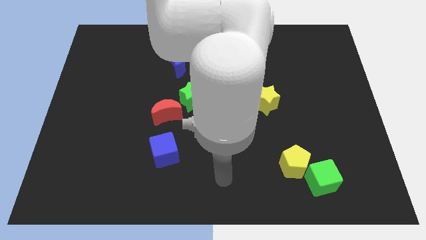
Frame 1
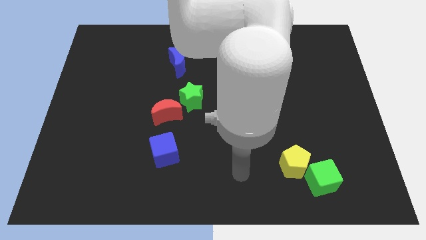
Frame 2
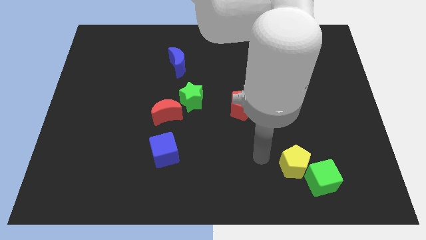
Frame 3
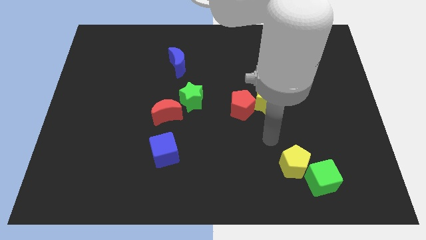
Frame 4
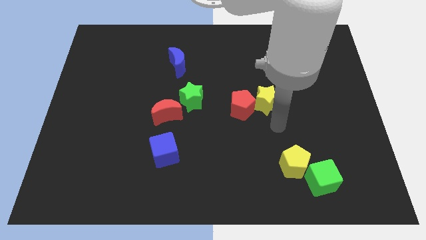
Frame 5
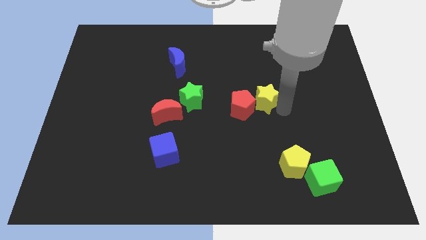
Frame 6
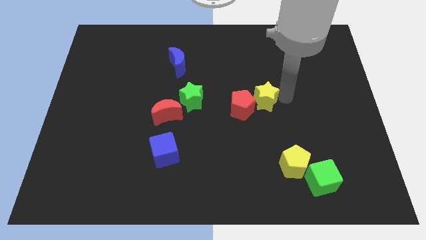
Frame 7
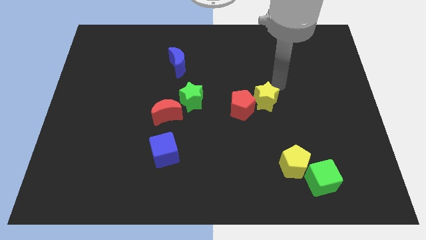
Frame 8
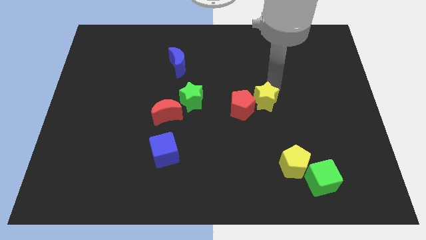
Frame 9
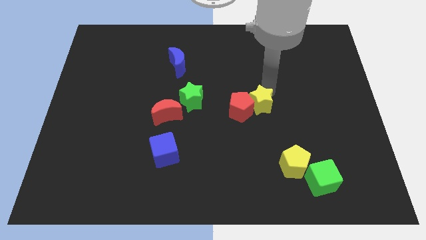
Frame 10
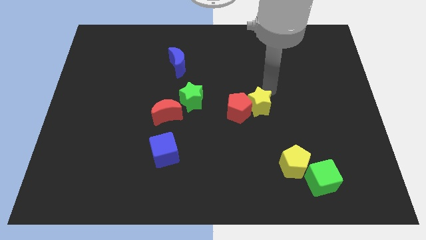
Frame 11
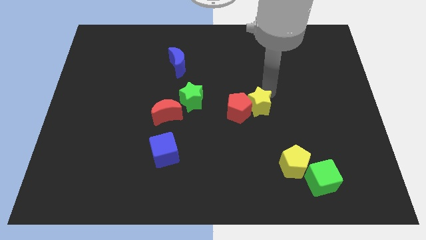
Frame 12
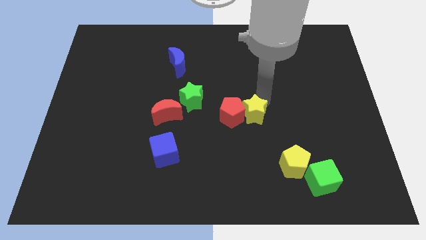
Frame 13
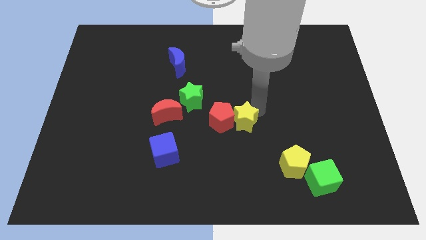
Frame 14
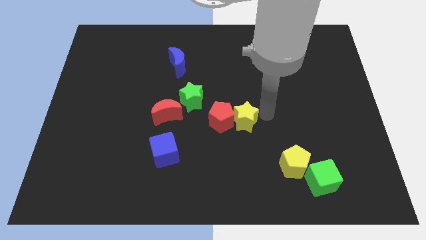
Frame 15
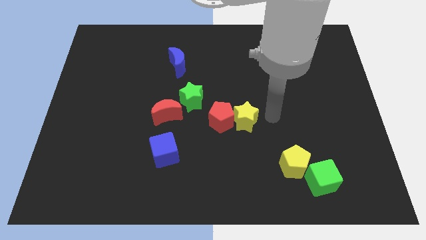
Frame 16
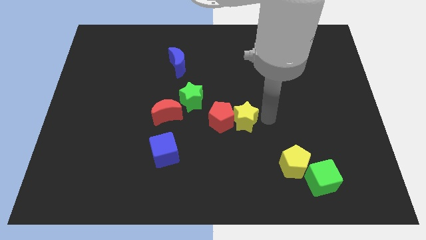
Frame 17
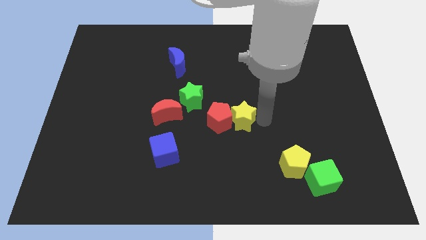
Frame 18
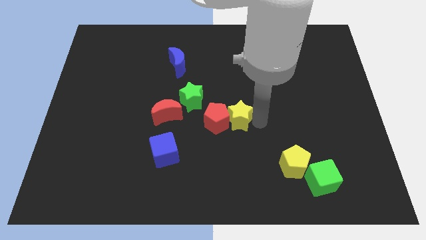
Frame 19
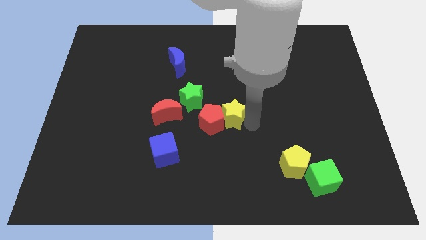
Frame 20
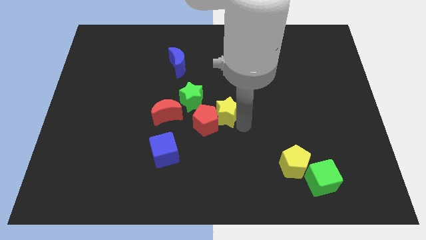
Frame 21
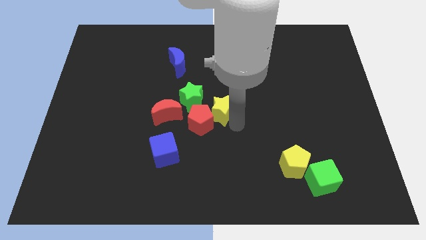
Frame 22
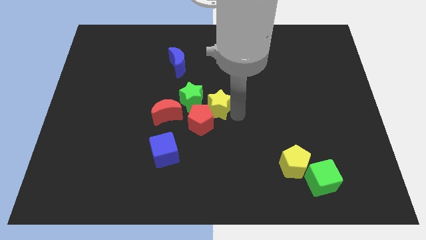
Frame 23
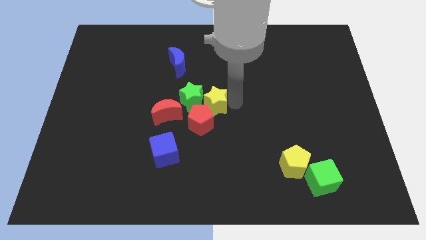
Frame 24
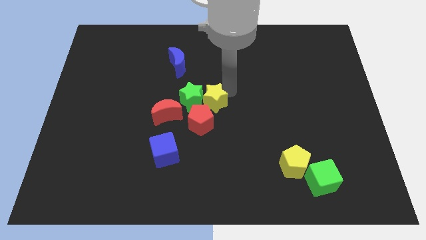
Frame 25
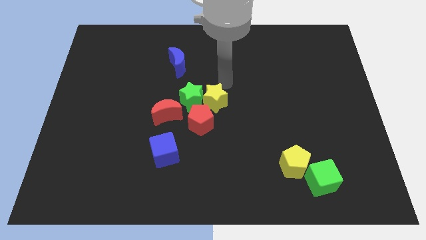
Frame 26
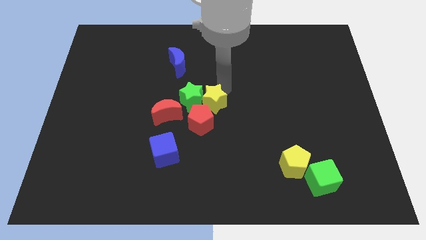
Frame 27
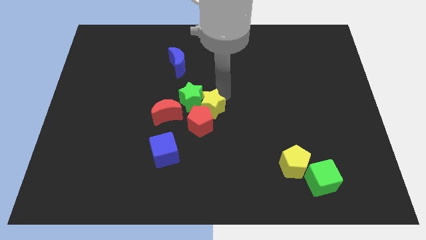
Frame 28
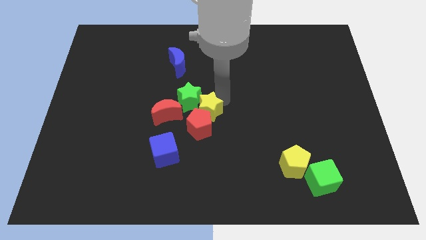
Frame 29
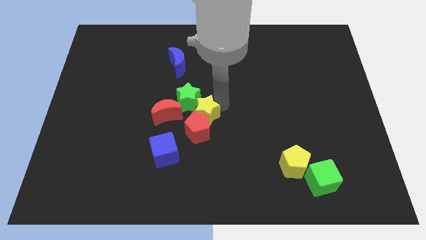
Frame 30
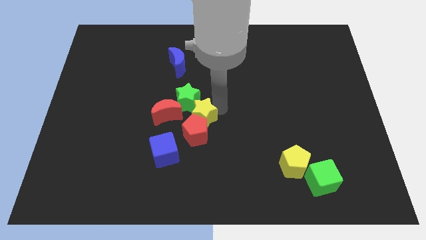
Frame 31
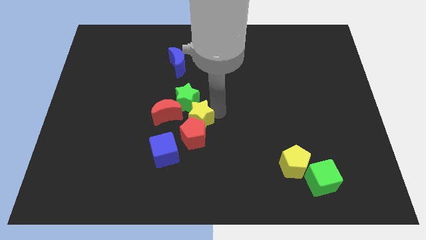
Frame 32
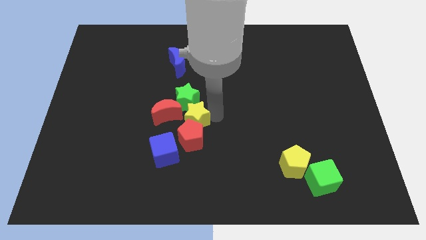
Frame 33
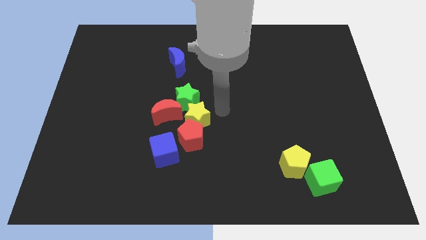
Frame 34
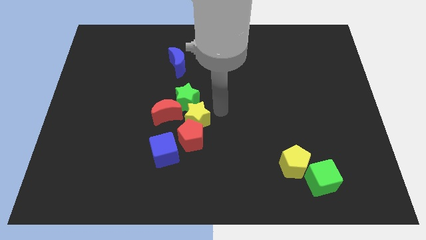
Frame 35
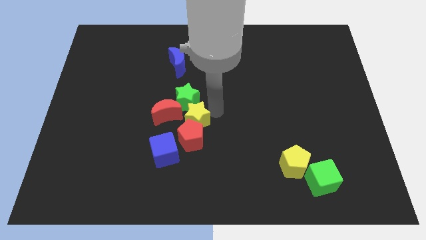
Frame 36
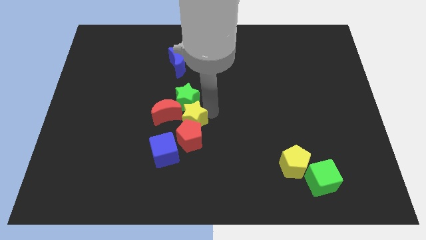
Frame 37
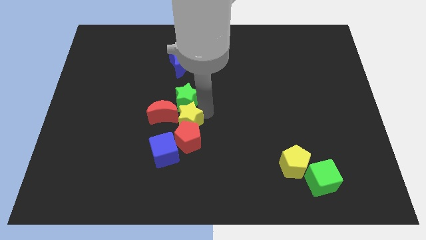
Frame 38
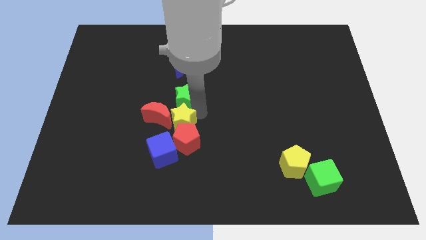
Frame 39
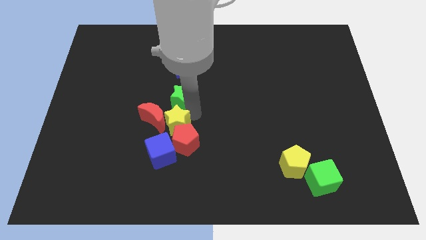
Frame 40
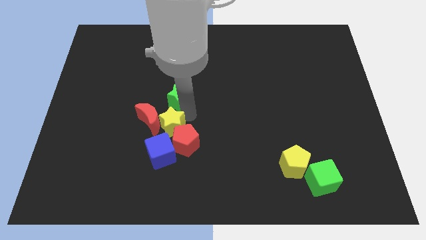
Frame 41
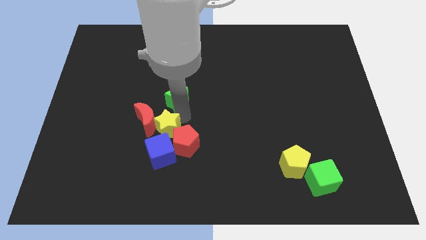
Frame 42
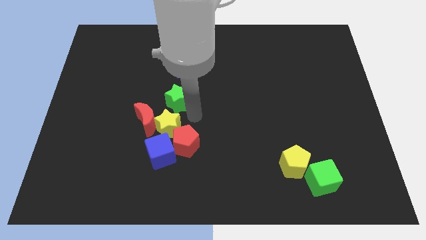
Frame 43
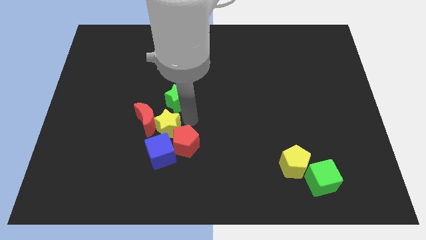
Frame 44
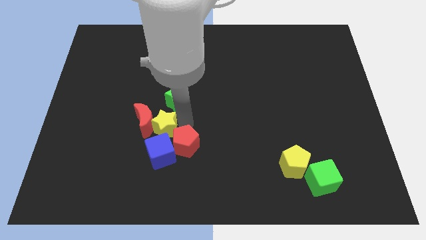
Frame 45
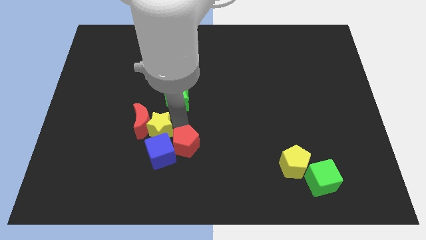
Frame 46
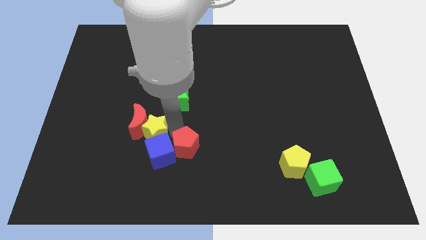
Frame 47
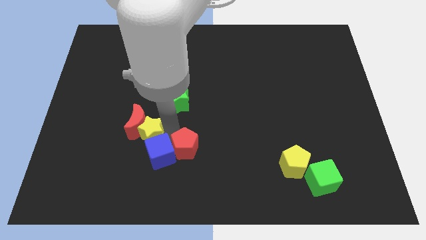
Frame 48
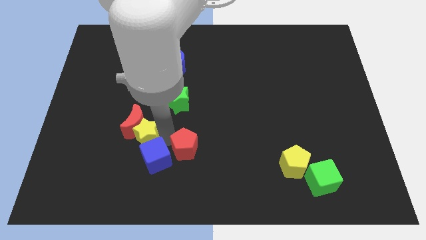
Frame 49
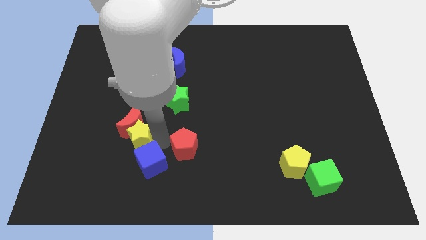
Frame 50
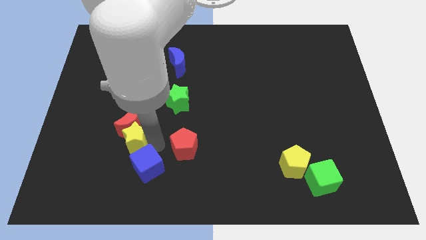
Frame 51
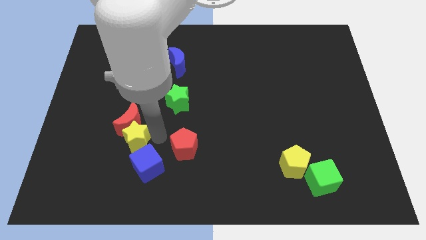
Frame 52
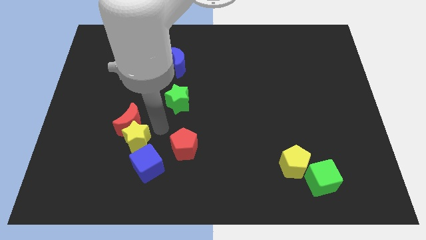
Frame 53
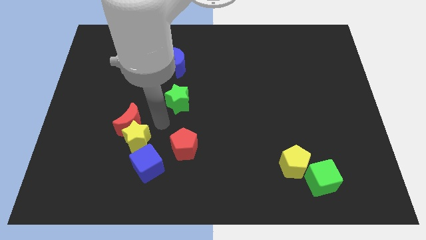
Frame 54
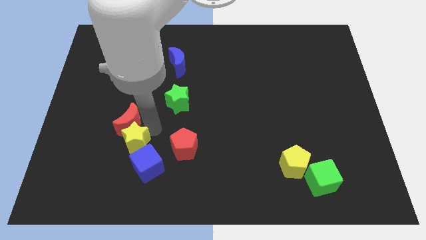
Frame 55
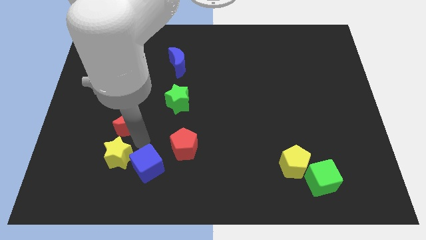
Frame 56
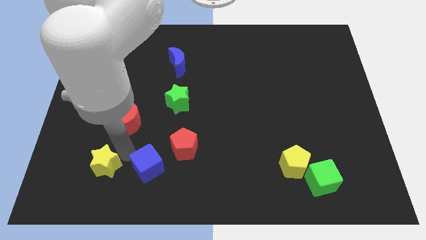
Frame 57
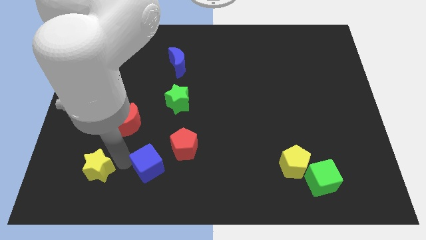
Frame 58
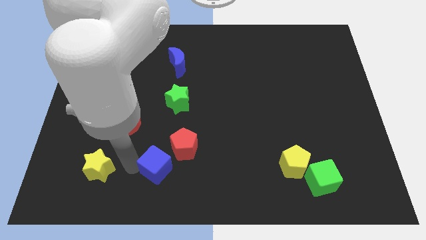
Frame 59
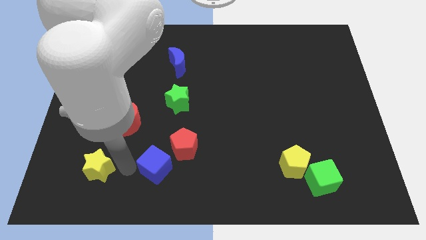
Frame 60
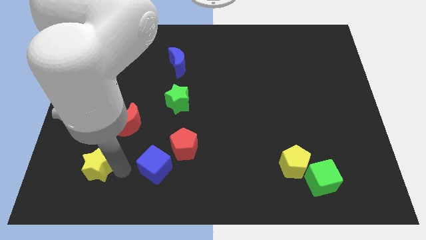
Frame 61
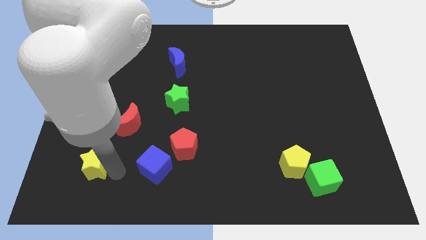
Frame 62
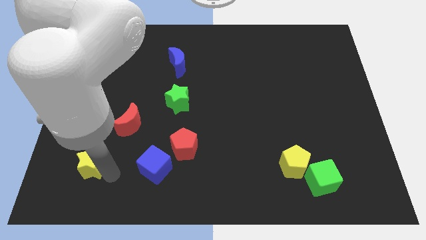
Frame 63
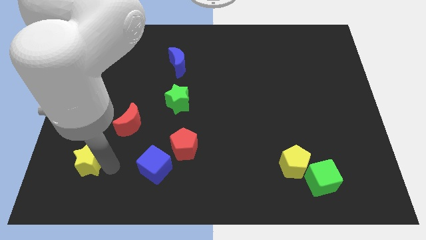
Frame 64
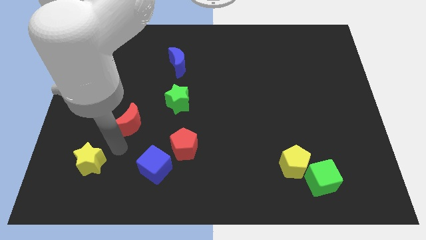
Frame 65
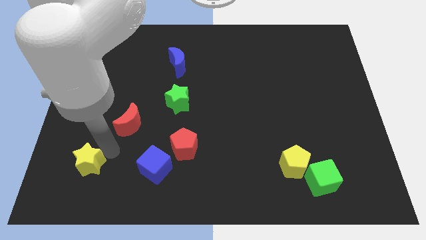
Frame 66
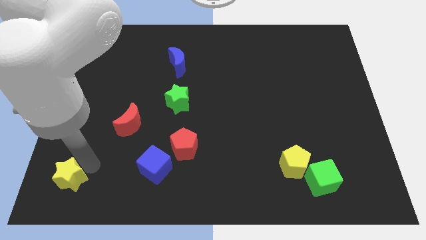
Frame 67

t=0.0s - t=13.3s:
push the yellow star to the lower left corner

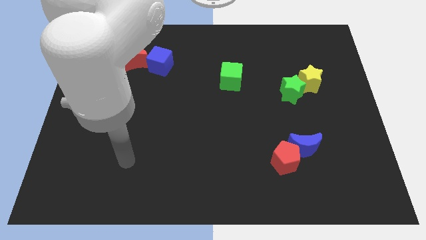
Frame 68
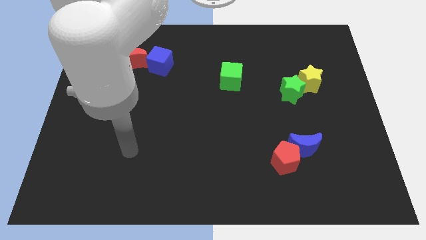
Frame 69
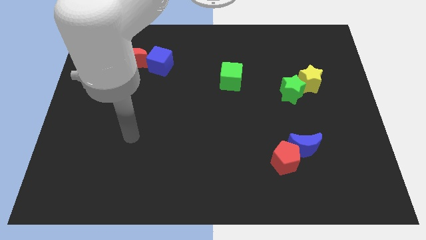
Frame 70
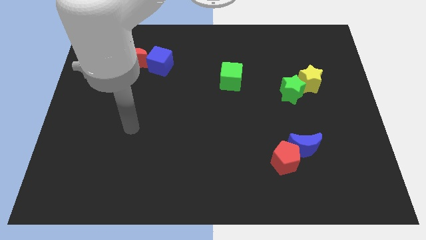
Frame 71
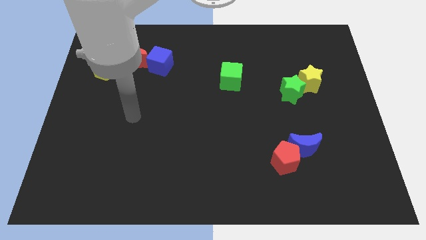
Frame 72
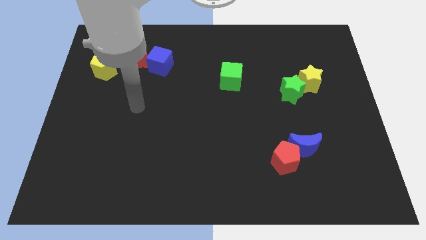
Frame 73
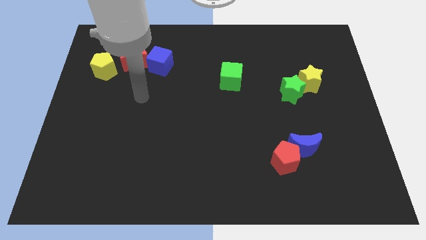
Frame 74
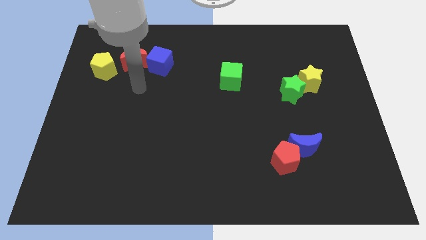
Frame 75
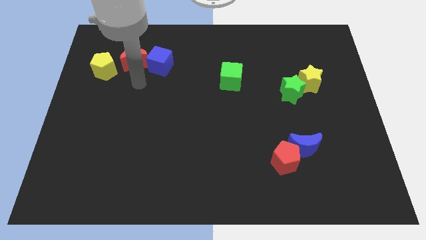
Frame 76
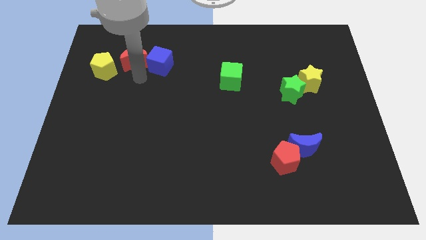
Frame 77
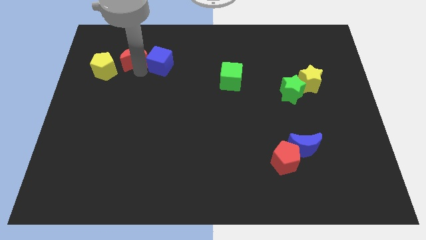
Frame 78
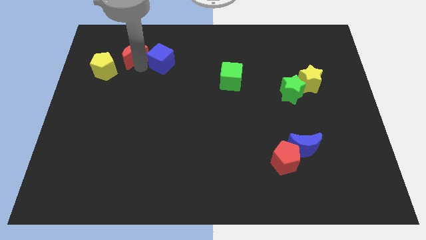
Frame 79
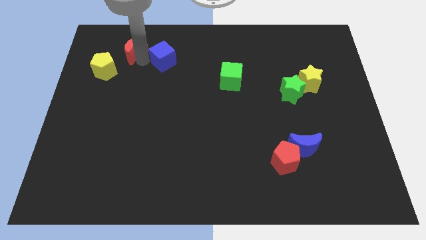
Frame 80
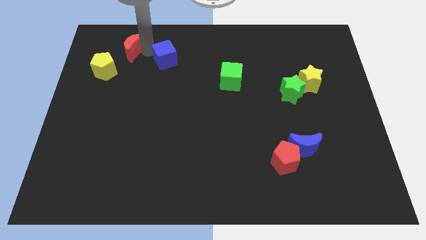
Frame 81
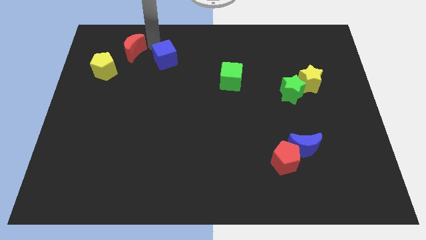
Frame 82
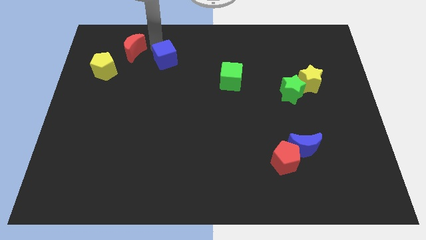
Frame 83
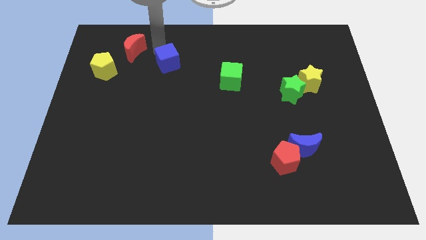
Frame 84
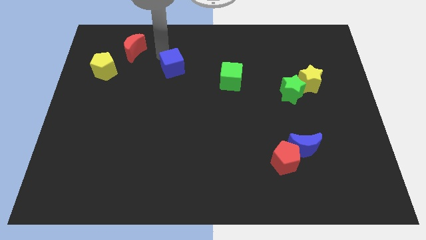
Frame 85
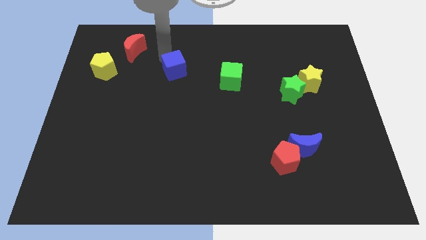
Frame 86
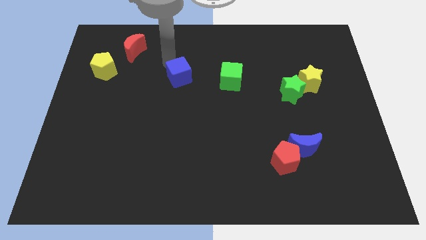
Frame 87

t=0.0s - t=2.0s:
move the blue cube to the middle of the board
